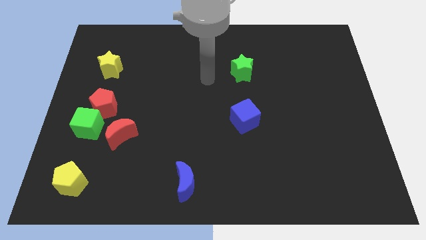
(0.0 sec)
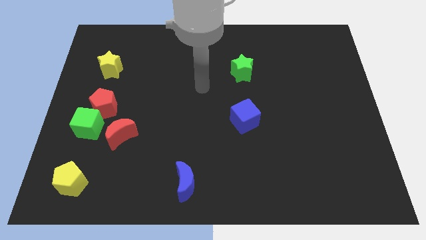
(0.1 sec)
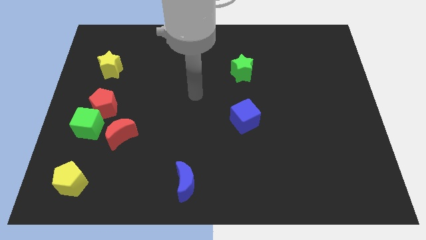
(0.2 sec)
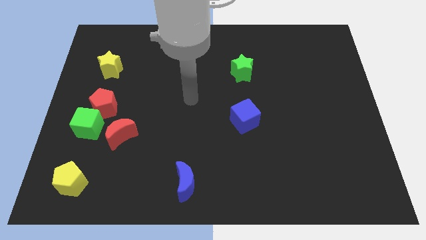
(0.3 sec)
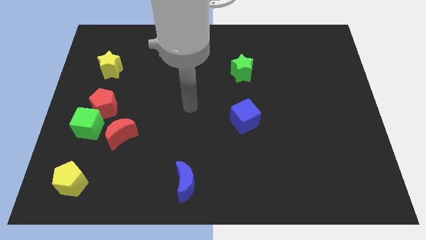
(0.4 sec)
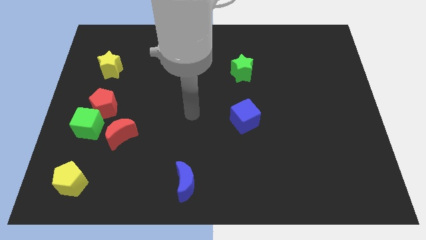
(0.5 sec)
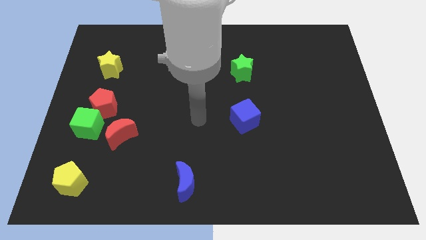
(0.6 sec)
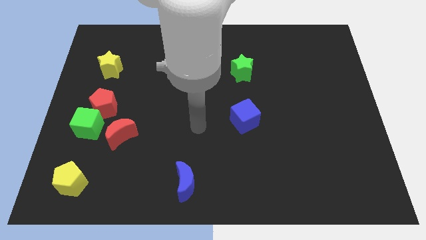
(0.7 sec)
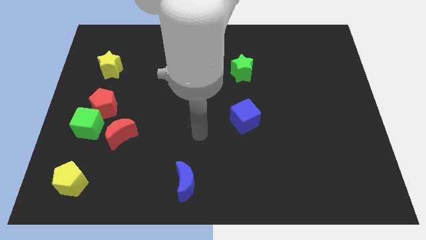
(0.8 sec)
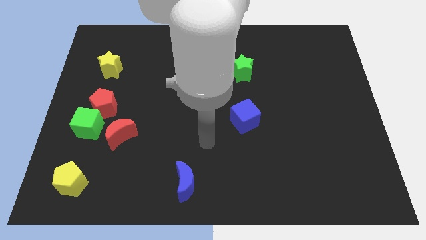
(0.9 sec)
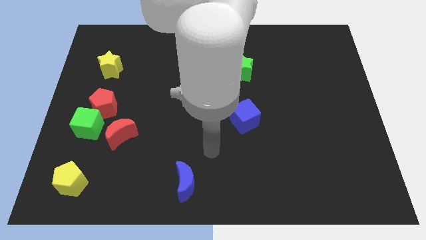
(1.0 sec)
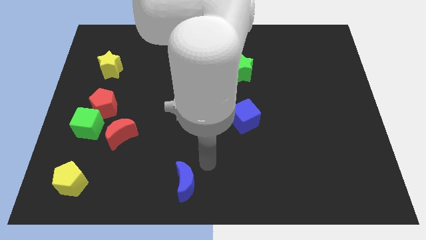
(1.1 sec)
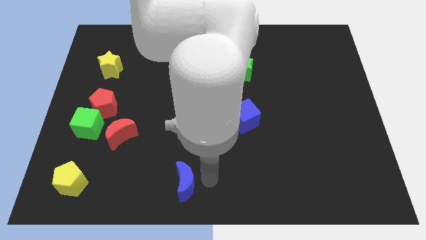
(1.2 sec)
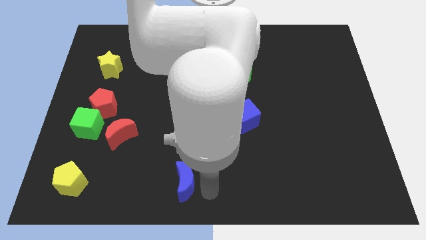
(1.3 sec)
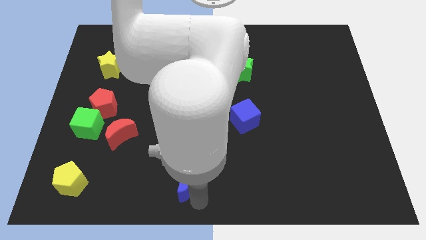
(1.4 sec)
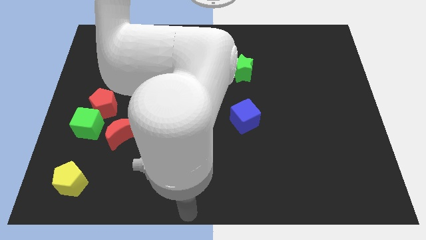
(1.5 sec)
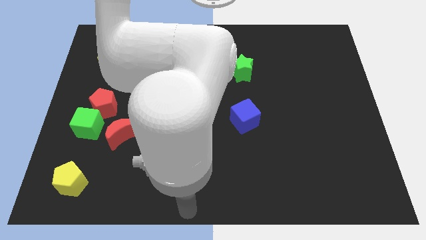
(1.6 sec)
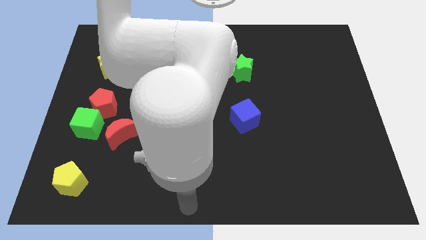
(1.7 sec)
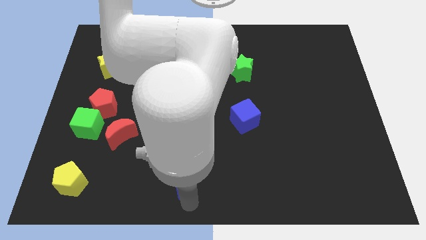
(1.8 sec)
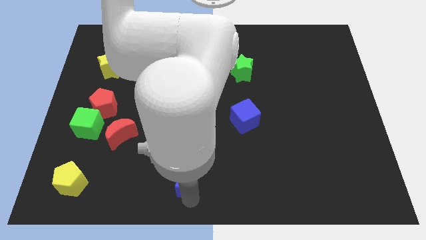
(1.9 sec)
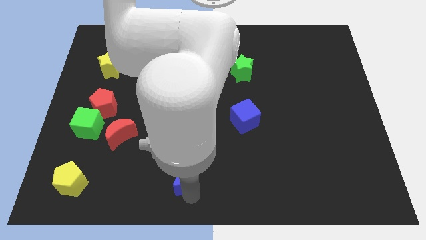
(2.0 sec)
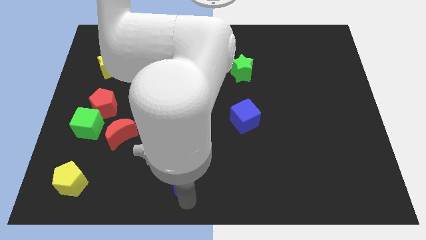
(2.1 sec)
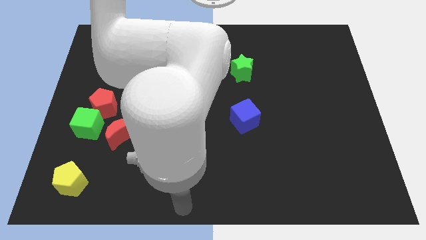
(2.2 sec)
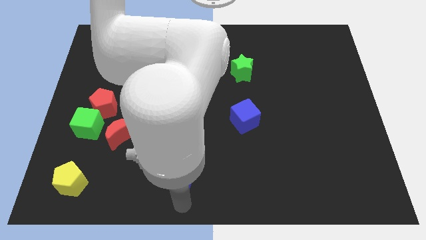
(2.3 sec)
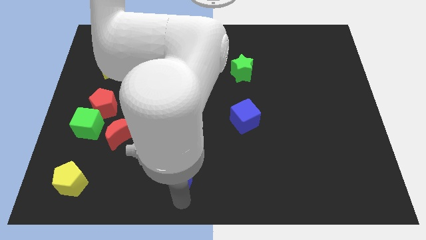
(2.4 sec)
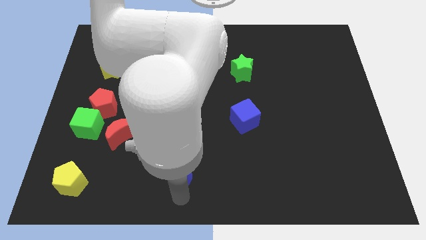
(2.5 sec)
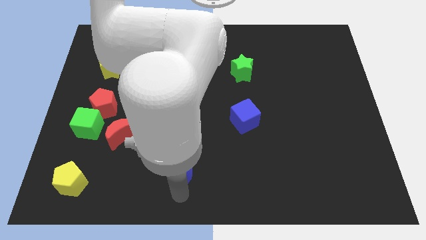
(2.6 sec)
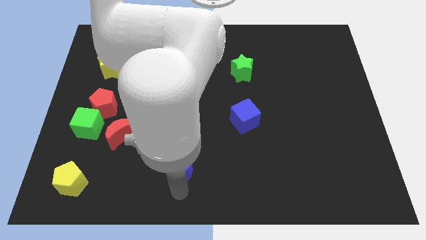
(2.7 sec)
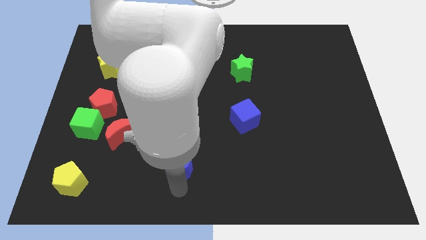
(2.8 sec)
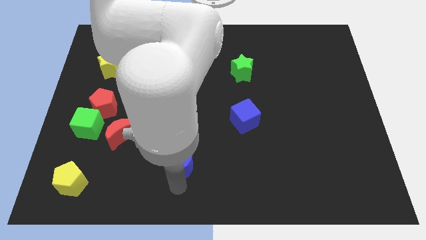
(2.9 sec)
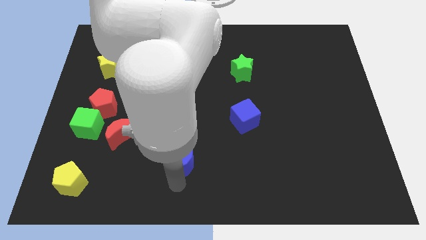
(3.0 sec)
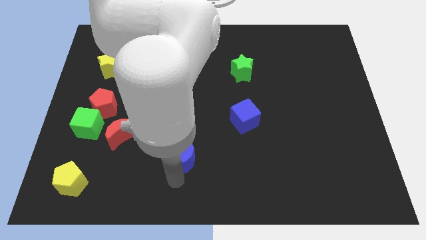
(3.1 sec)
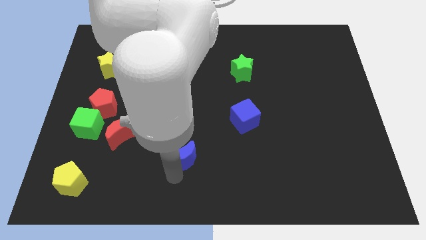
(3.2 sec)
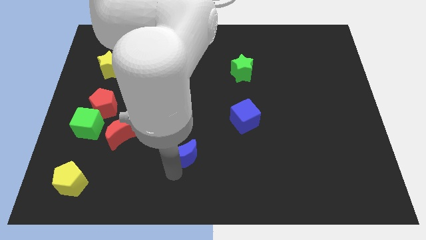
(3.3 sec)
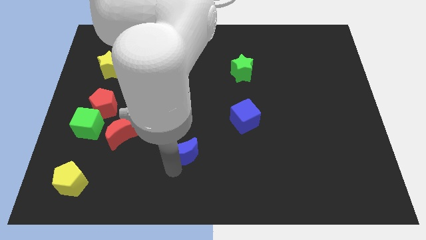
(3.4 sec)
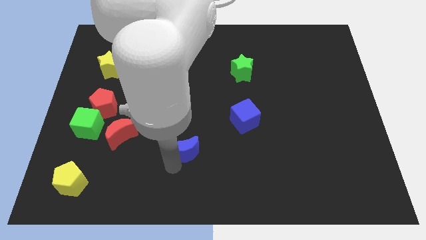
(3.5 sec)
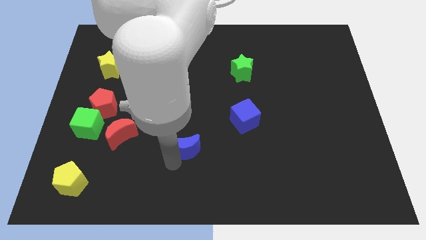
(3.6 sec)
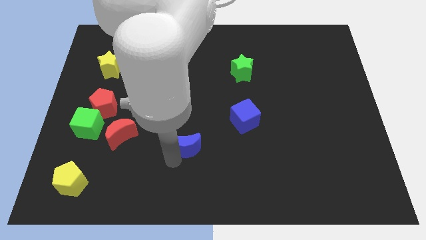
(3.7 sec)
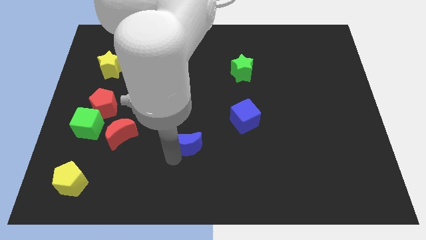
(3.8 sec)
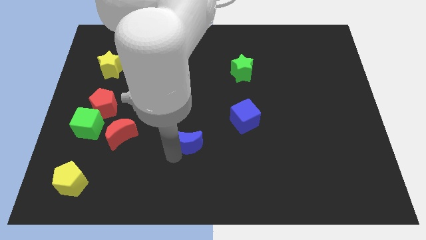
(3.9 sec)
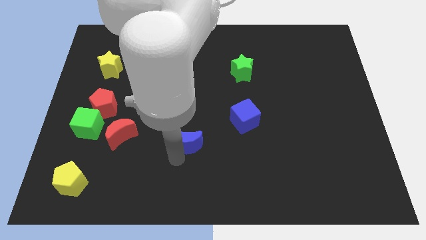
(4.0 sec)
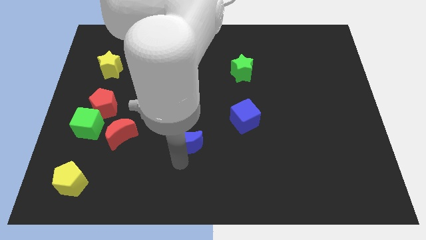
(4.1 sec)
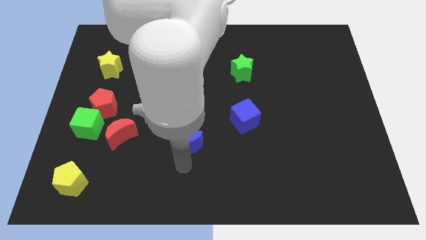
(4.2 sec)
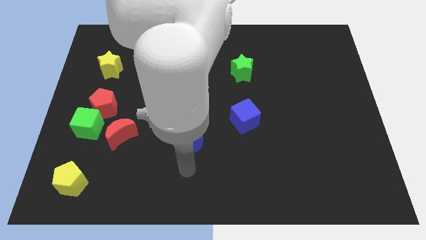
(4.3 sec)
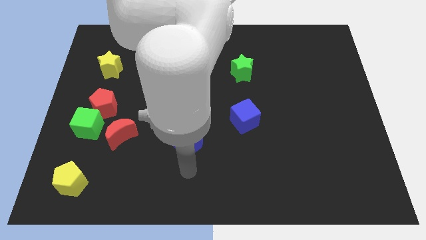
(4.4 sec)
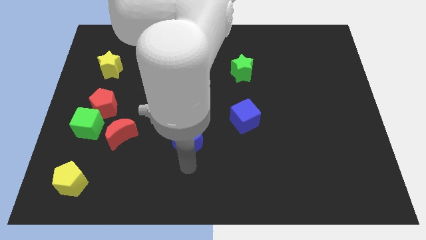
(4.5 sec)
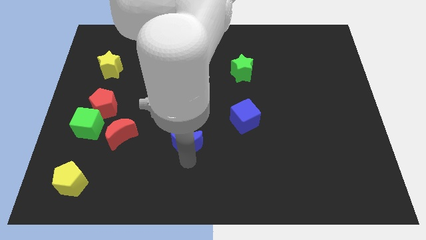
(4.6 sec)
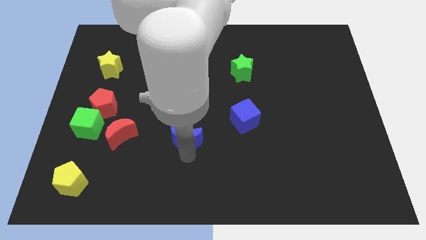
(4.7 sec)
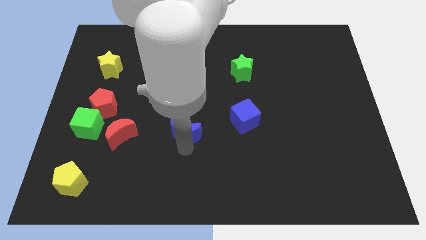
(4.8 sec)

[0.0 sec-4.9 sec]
move the blue moon to the center

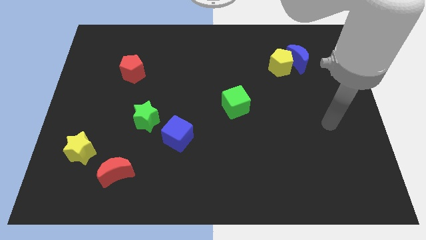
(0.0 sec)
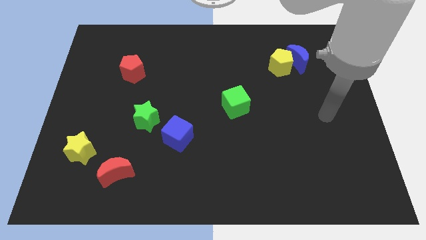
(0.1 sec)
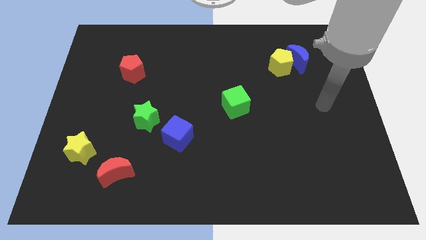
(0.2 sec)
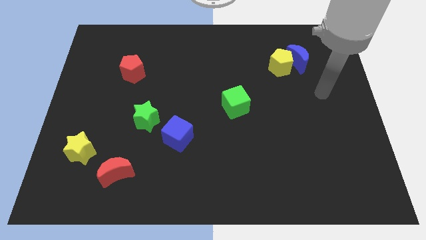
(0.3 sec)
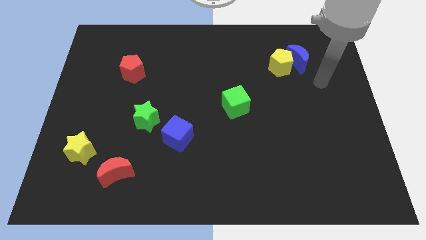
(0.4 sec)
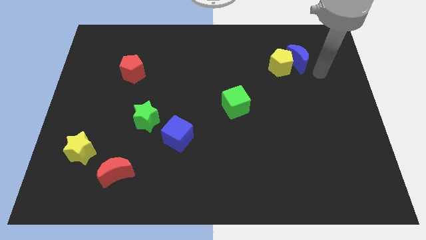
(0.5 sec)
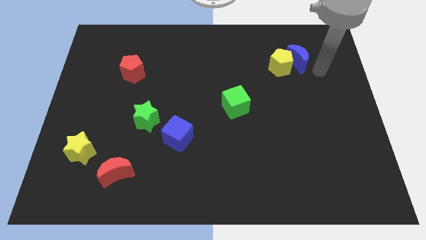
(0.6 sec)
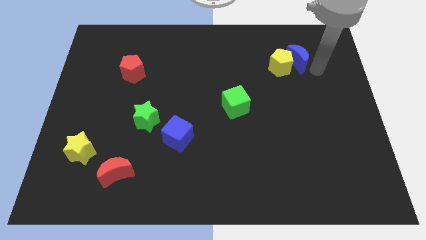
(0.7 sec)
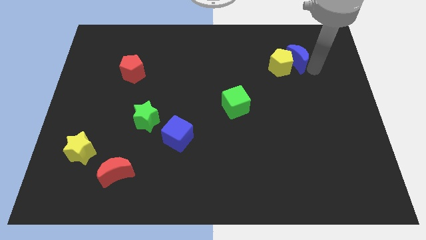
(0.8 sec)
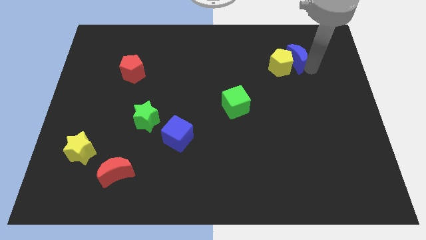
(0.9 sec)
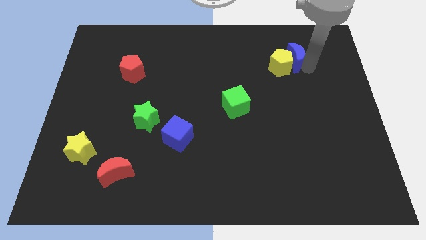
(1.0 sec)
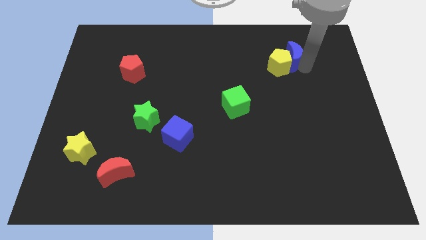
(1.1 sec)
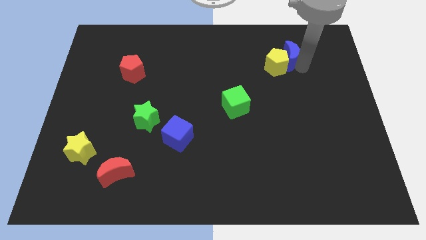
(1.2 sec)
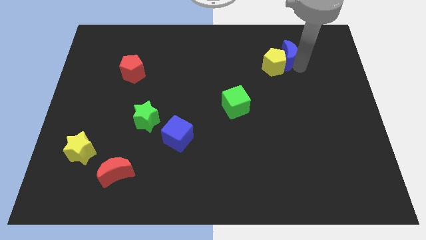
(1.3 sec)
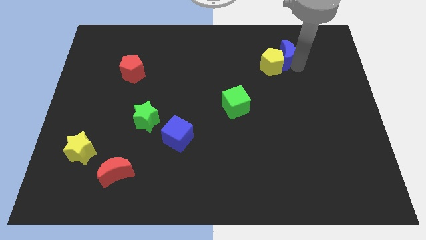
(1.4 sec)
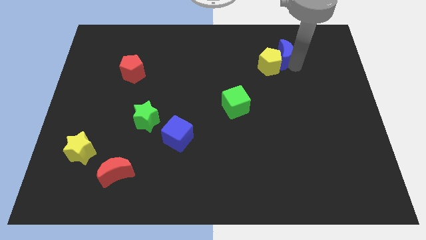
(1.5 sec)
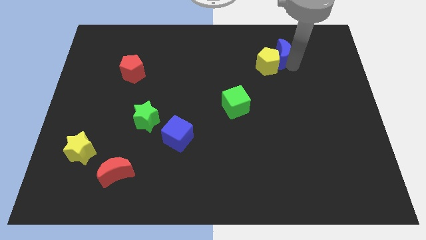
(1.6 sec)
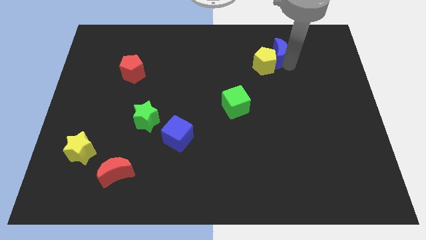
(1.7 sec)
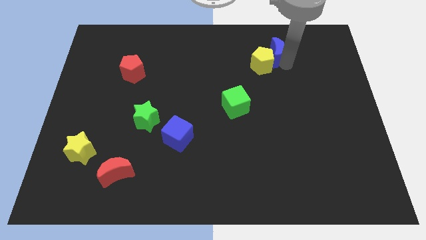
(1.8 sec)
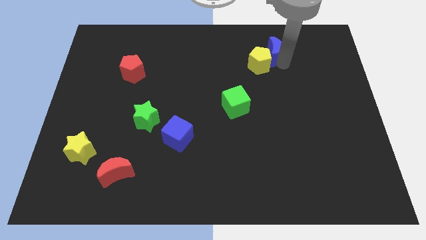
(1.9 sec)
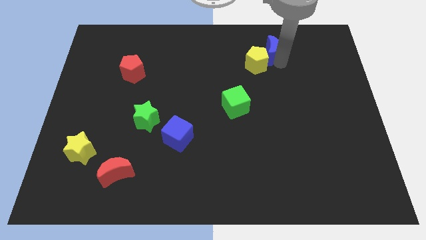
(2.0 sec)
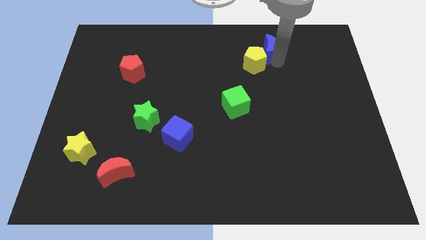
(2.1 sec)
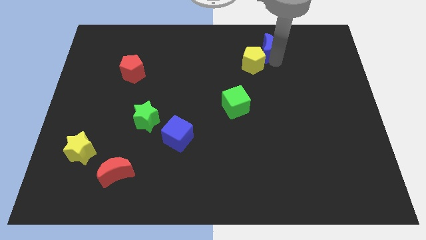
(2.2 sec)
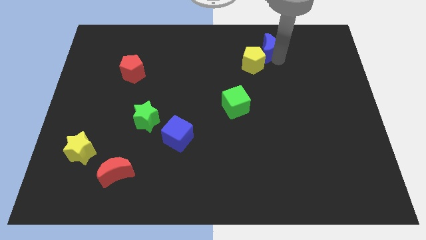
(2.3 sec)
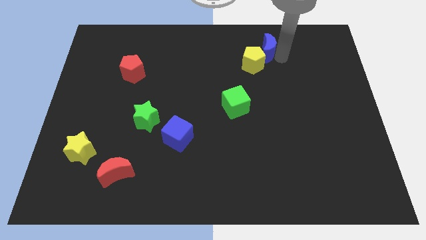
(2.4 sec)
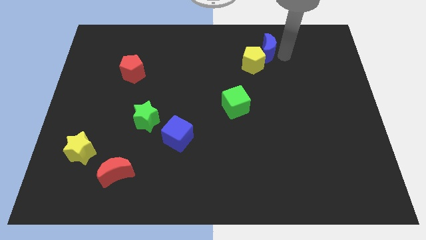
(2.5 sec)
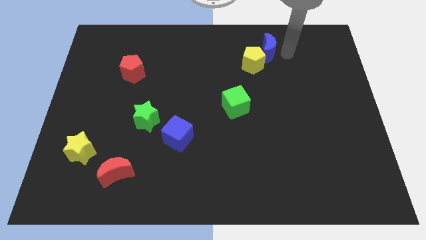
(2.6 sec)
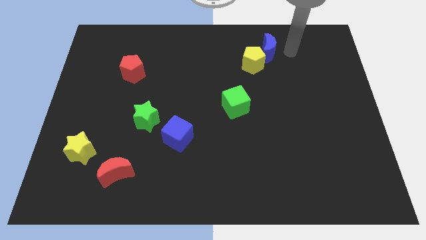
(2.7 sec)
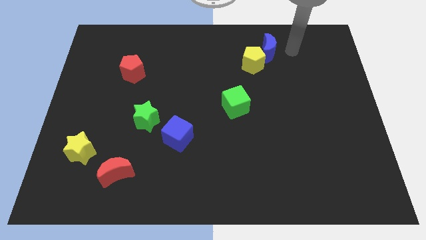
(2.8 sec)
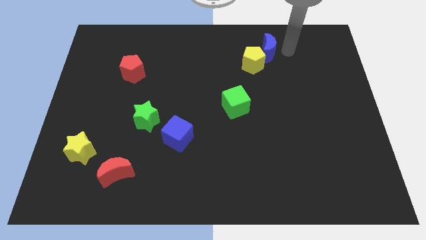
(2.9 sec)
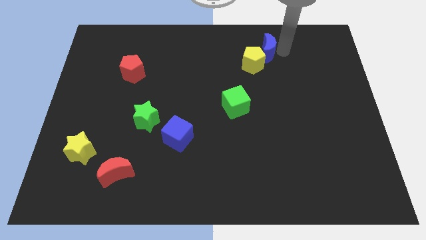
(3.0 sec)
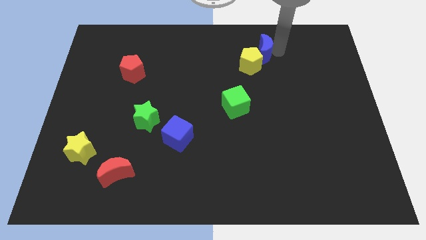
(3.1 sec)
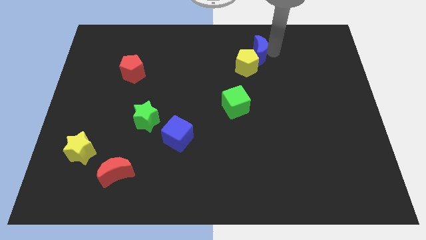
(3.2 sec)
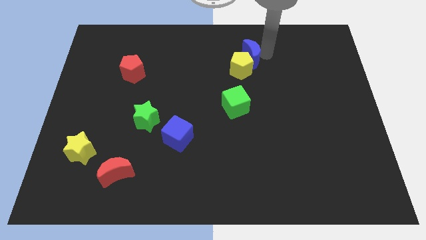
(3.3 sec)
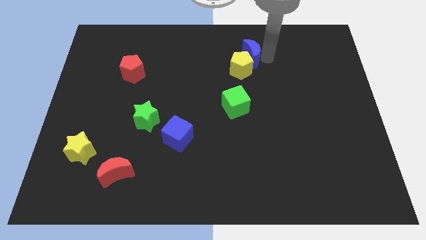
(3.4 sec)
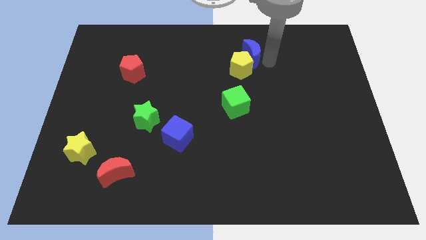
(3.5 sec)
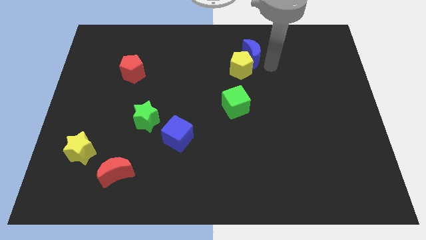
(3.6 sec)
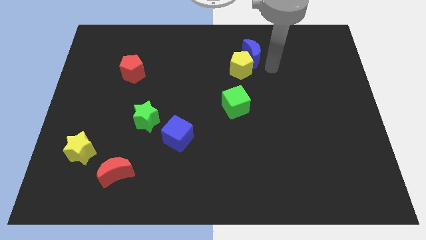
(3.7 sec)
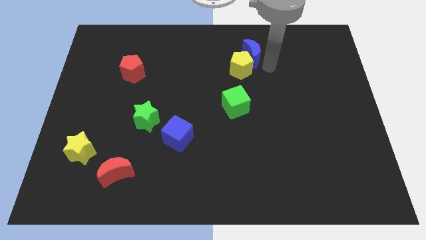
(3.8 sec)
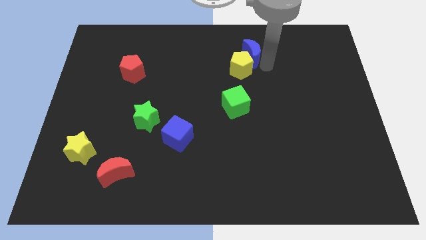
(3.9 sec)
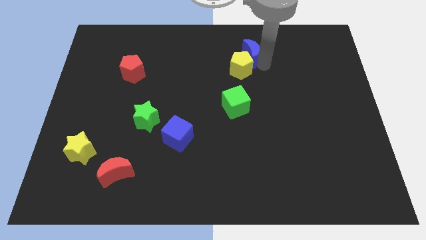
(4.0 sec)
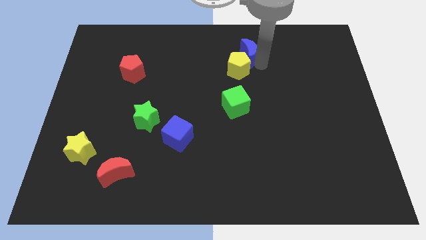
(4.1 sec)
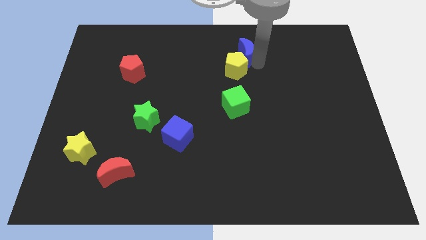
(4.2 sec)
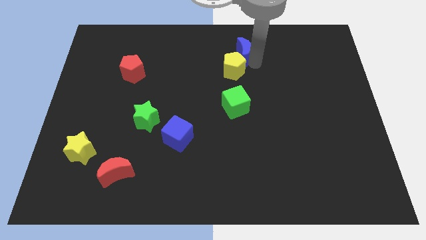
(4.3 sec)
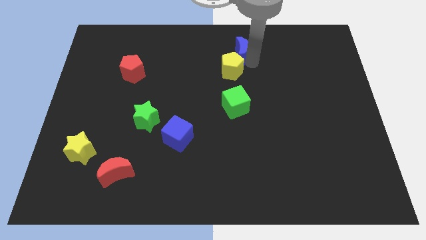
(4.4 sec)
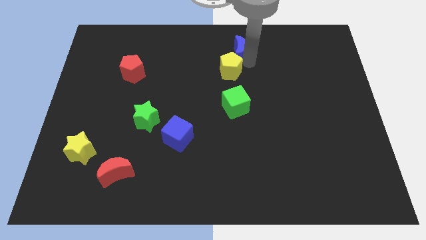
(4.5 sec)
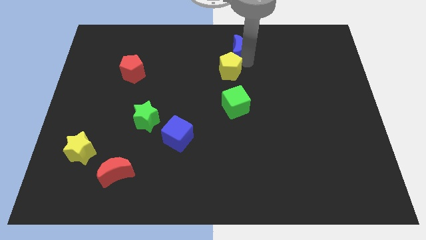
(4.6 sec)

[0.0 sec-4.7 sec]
slide the blue moon to the towards your base
